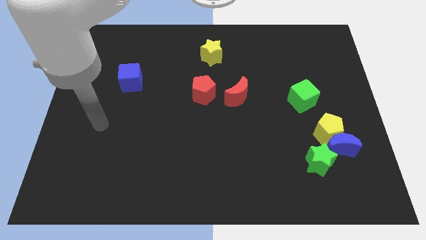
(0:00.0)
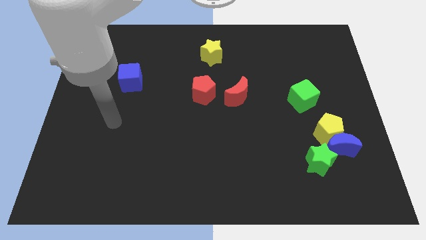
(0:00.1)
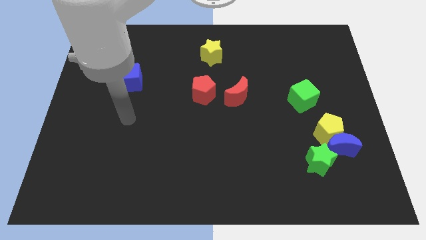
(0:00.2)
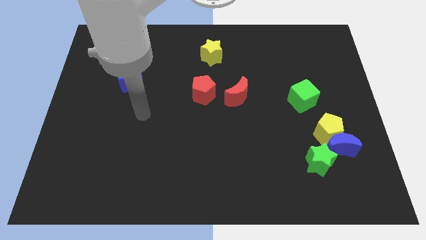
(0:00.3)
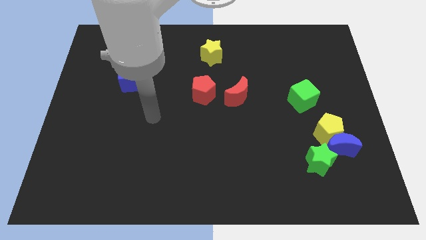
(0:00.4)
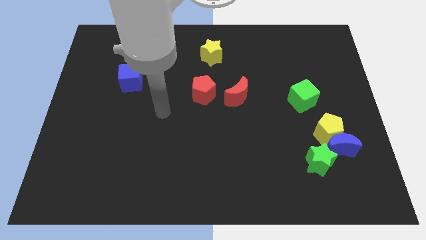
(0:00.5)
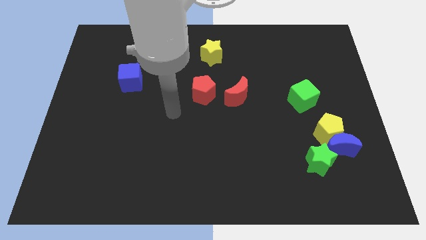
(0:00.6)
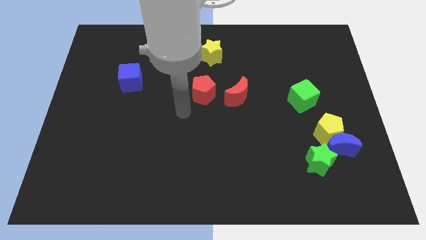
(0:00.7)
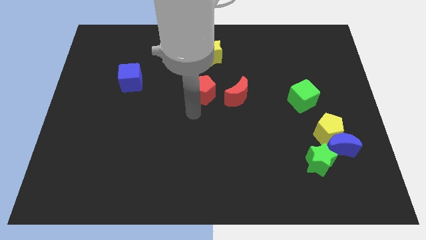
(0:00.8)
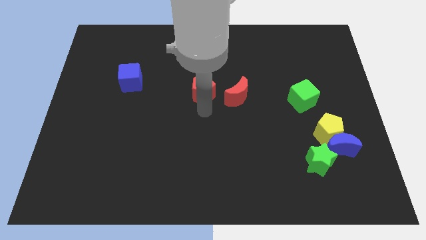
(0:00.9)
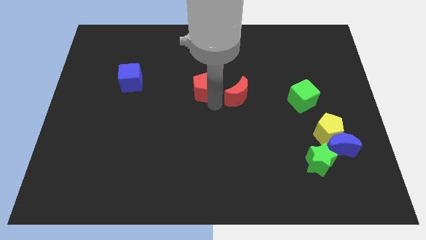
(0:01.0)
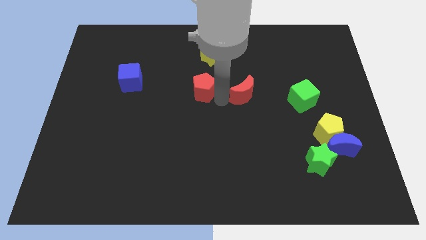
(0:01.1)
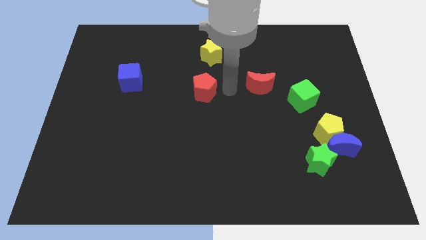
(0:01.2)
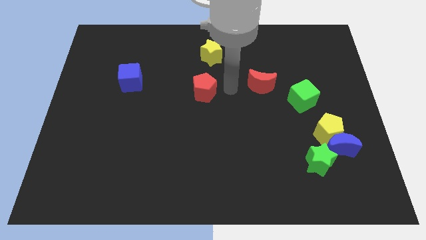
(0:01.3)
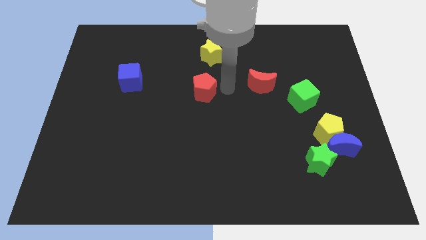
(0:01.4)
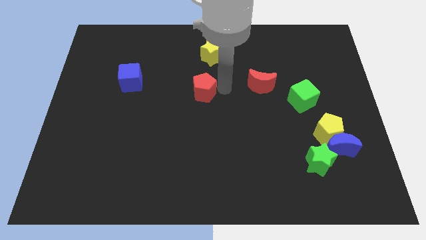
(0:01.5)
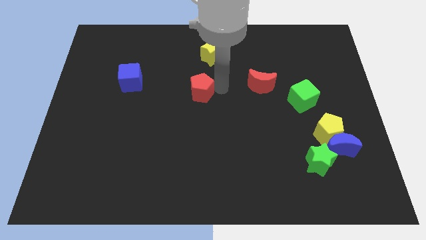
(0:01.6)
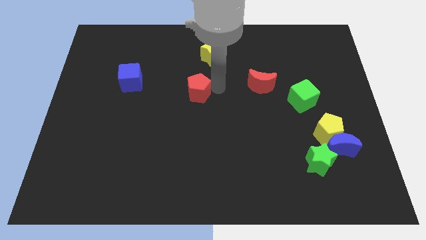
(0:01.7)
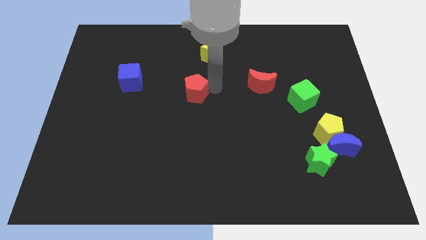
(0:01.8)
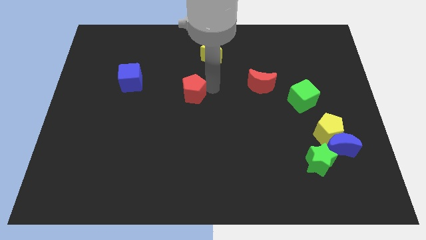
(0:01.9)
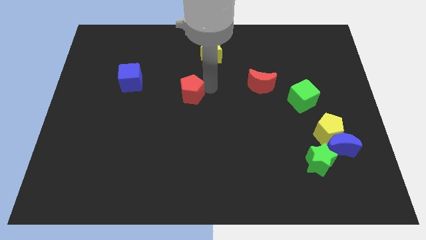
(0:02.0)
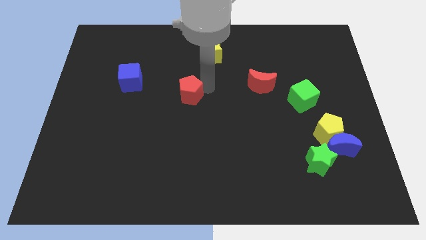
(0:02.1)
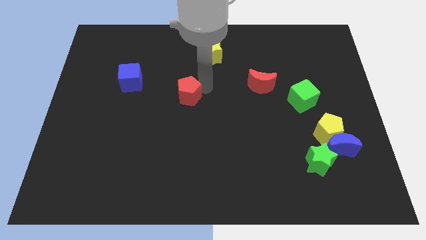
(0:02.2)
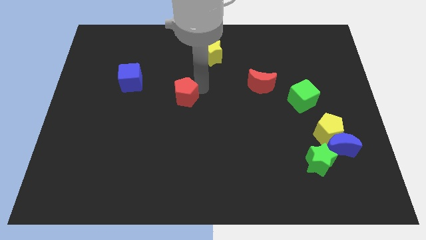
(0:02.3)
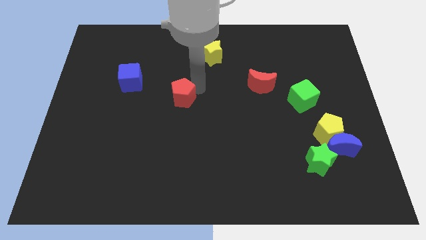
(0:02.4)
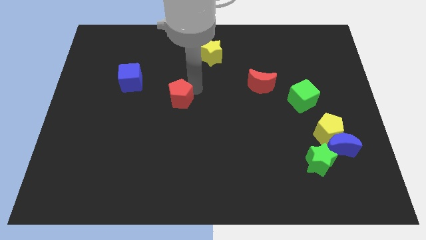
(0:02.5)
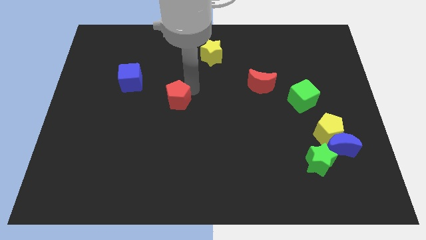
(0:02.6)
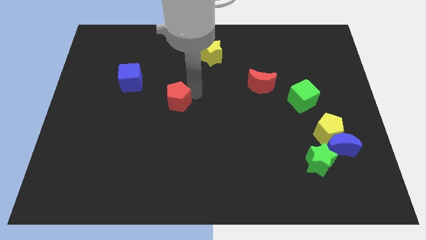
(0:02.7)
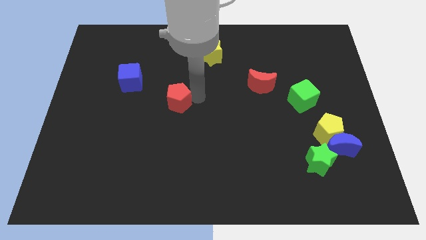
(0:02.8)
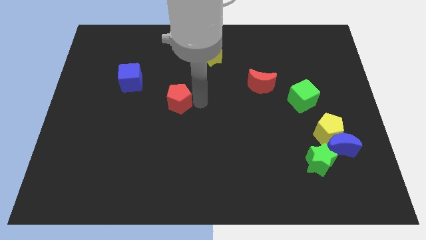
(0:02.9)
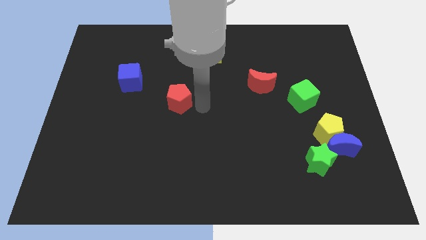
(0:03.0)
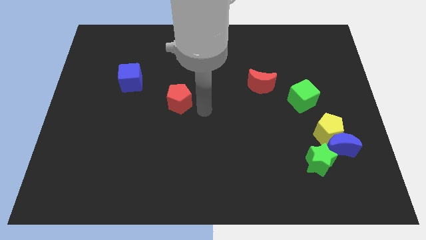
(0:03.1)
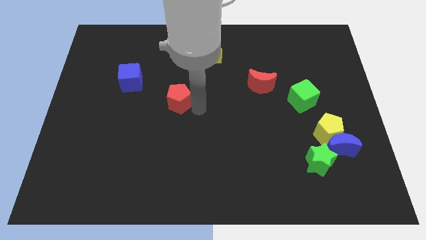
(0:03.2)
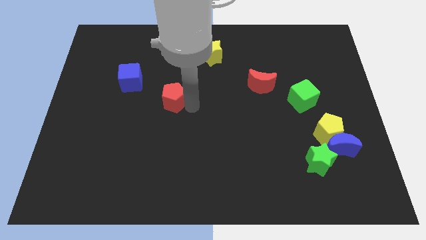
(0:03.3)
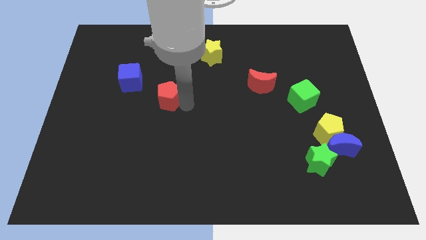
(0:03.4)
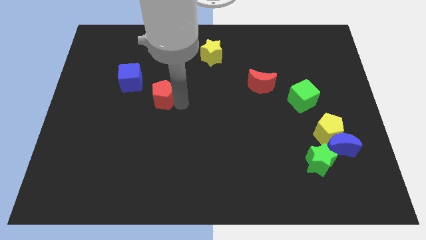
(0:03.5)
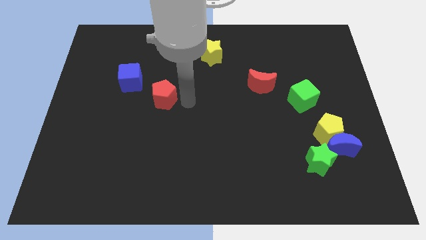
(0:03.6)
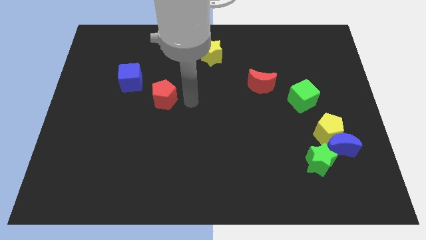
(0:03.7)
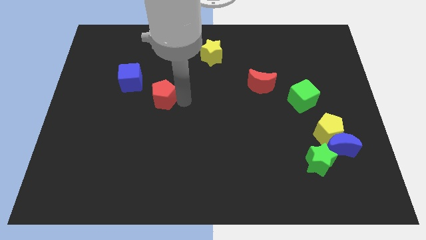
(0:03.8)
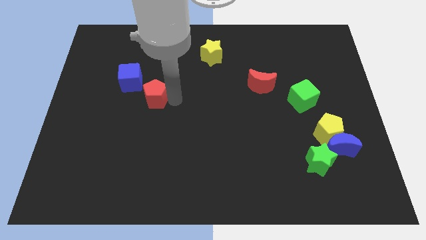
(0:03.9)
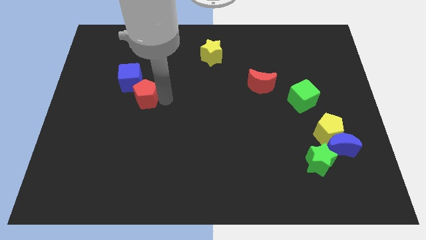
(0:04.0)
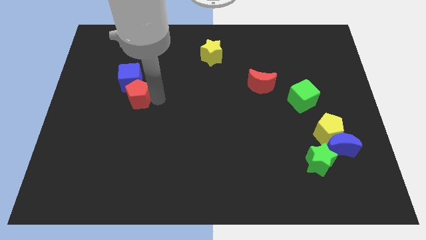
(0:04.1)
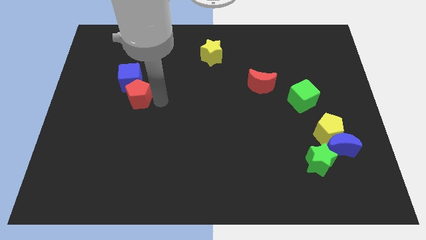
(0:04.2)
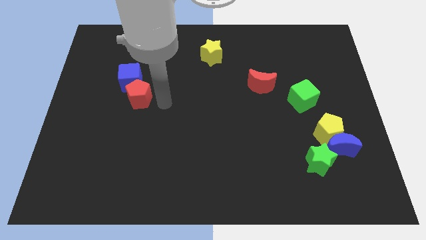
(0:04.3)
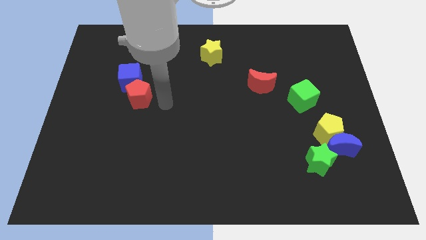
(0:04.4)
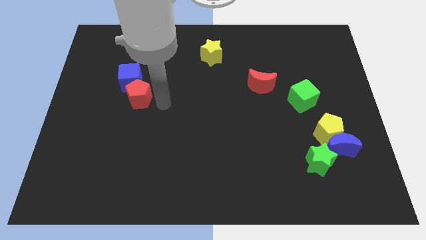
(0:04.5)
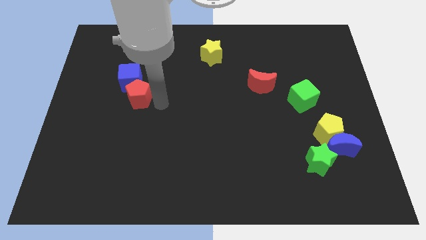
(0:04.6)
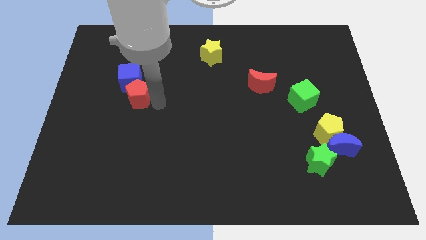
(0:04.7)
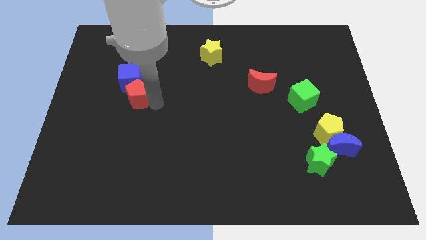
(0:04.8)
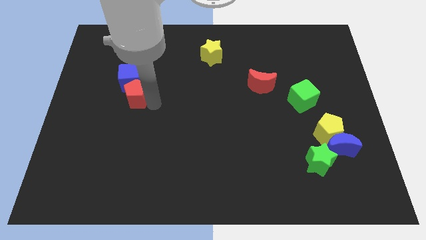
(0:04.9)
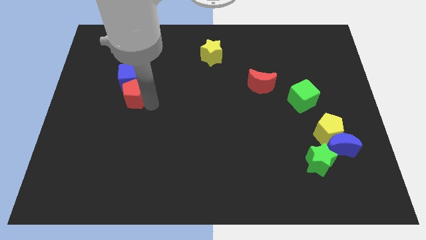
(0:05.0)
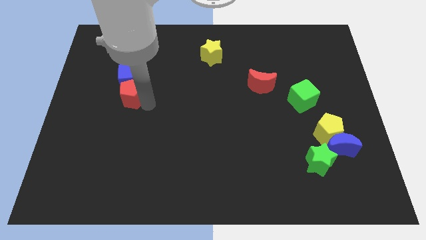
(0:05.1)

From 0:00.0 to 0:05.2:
move the red pentagon to the bottom left side of the blue cube

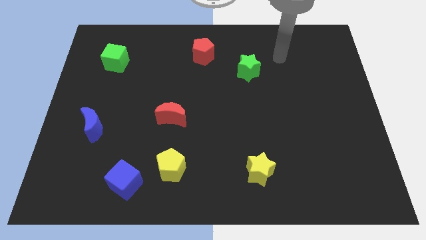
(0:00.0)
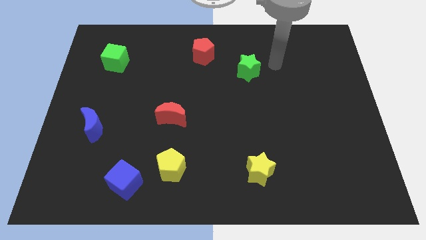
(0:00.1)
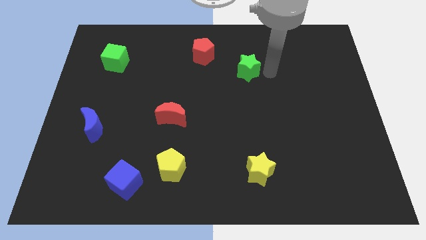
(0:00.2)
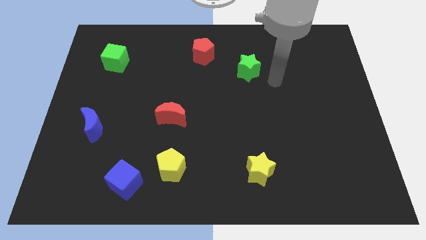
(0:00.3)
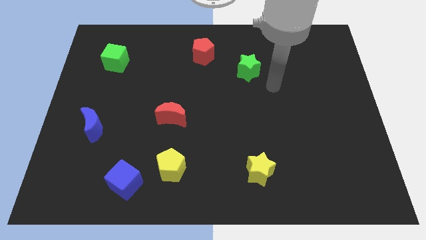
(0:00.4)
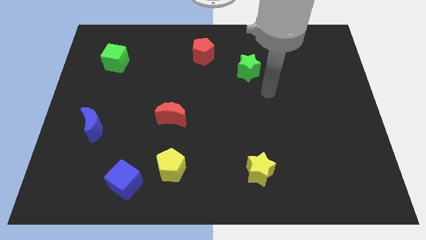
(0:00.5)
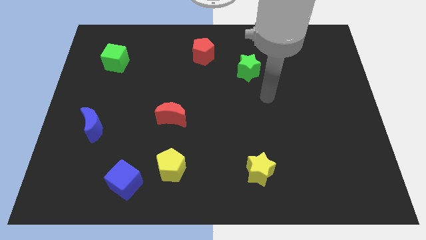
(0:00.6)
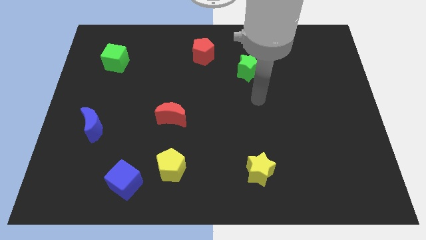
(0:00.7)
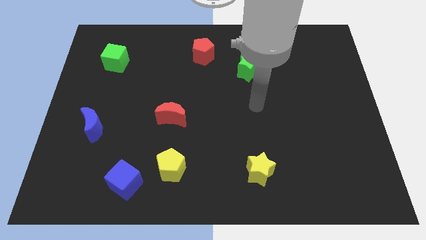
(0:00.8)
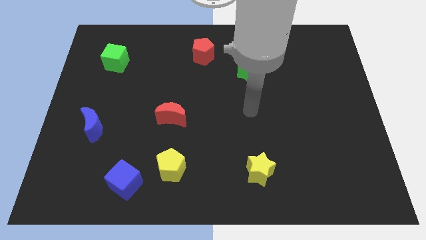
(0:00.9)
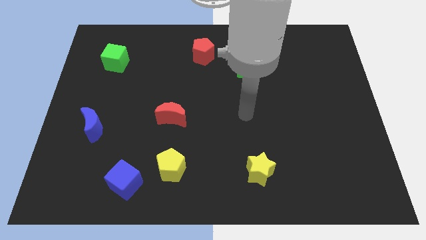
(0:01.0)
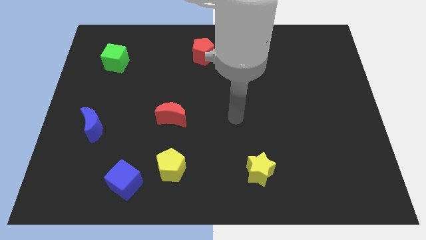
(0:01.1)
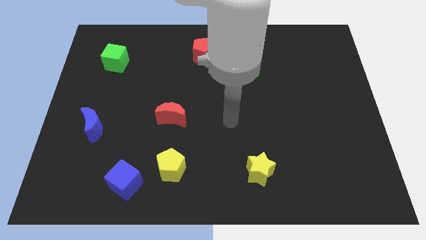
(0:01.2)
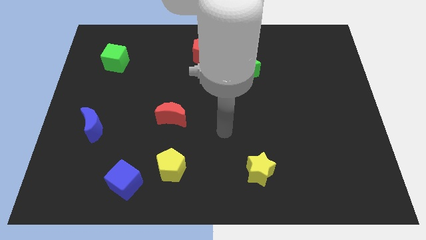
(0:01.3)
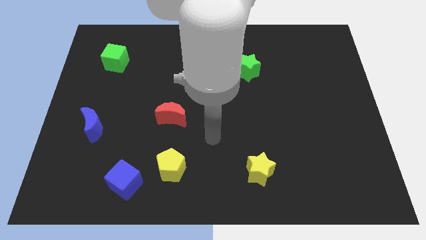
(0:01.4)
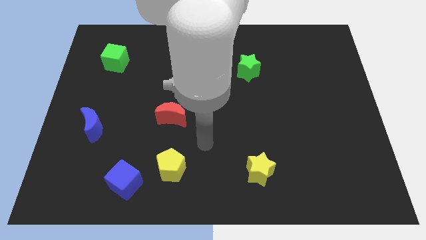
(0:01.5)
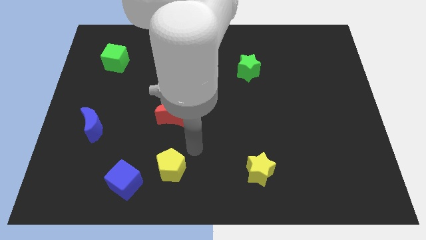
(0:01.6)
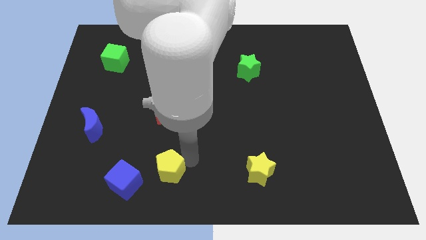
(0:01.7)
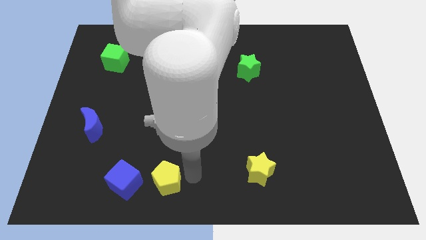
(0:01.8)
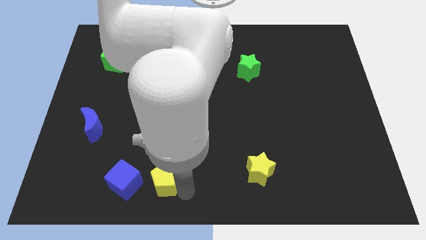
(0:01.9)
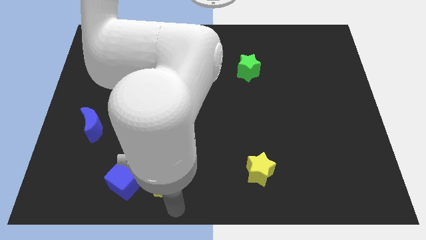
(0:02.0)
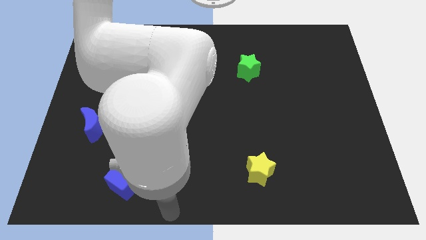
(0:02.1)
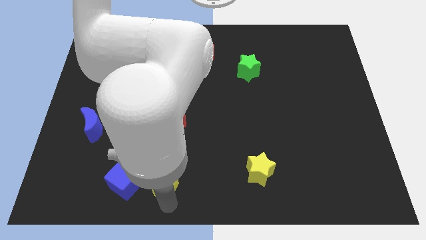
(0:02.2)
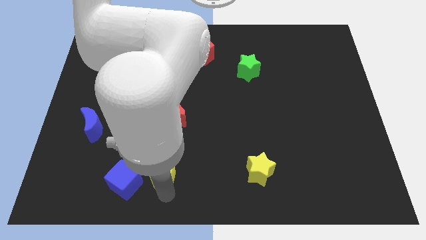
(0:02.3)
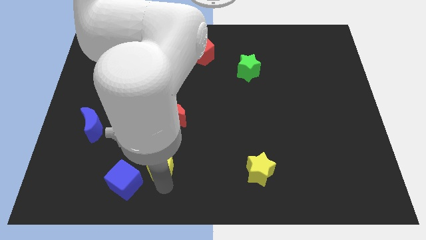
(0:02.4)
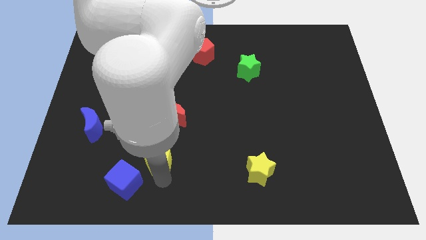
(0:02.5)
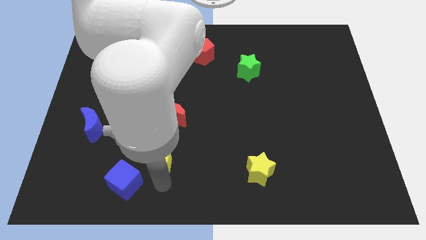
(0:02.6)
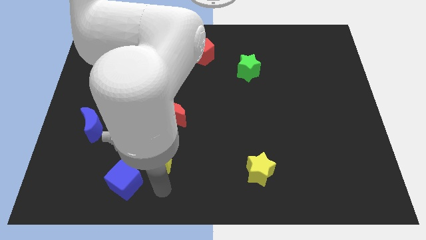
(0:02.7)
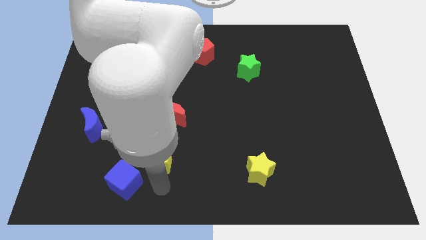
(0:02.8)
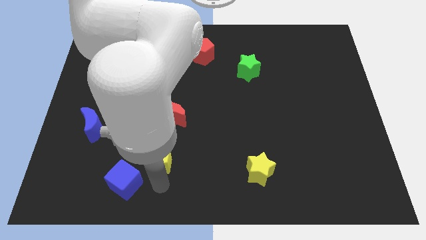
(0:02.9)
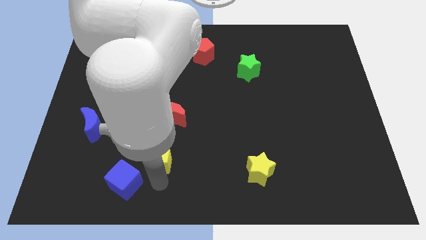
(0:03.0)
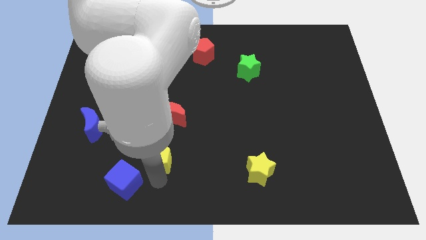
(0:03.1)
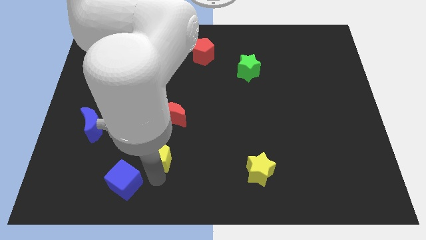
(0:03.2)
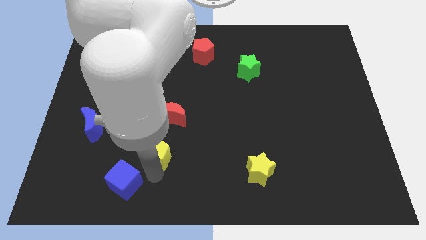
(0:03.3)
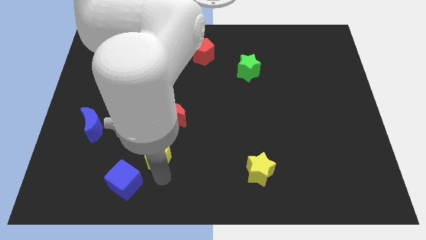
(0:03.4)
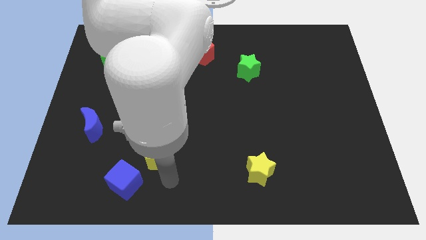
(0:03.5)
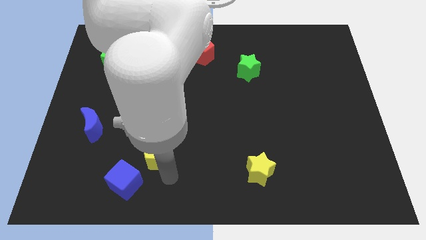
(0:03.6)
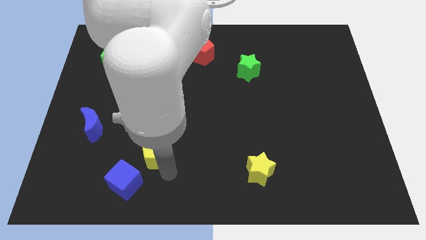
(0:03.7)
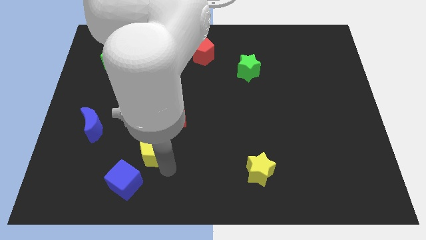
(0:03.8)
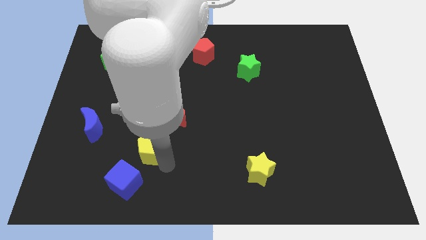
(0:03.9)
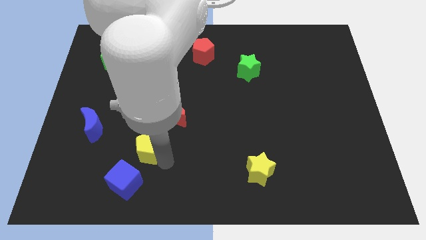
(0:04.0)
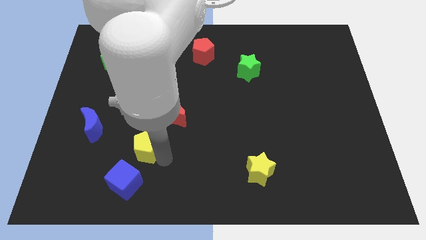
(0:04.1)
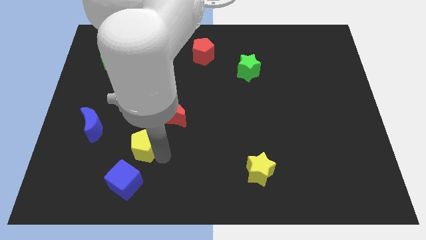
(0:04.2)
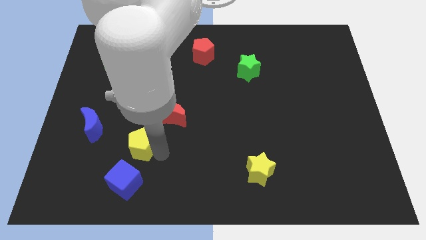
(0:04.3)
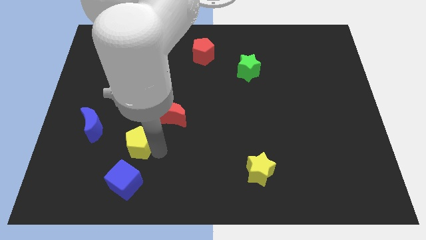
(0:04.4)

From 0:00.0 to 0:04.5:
move the yellow pentagon to the right of the blue moon
